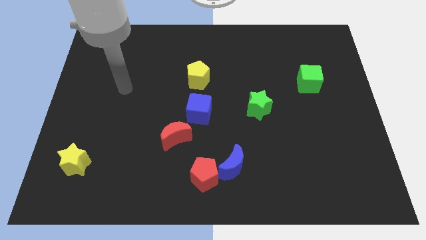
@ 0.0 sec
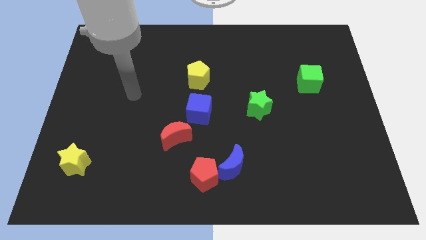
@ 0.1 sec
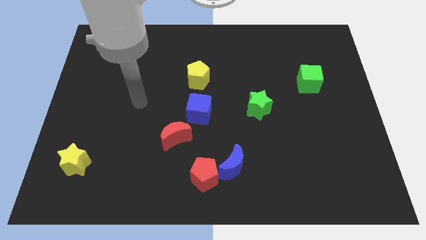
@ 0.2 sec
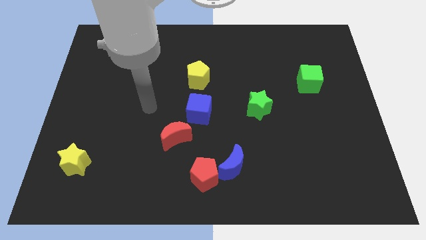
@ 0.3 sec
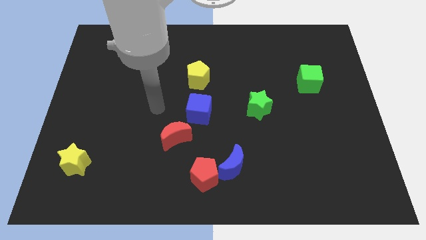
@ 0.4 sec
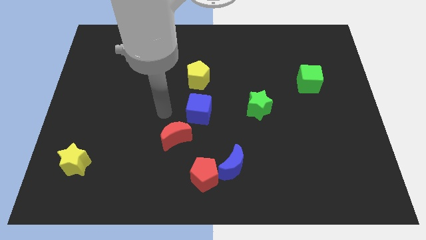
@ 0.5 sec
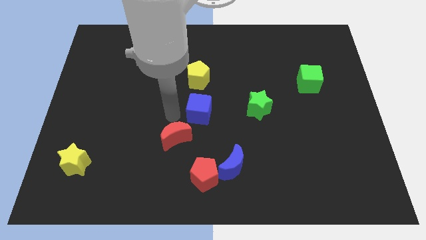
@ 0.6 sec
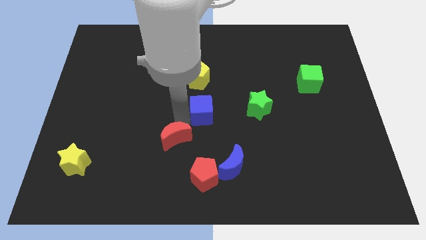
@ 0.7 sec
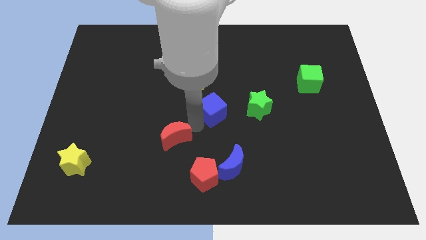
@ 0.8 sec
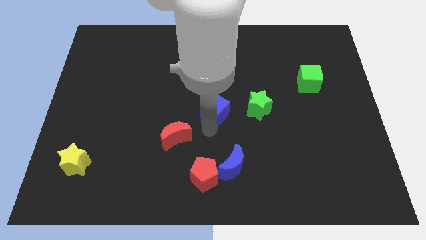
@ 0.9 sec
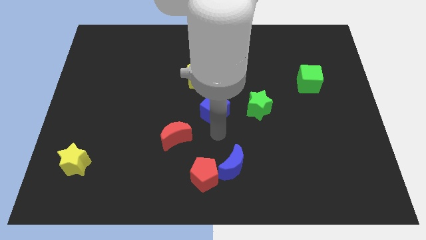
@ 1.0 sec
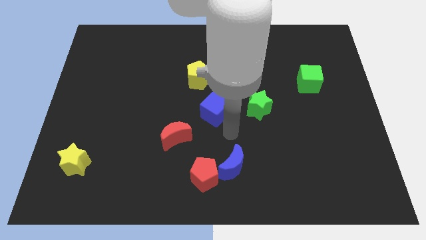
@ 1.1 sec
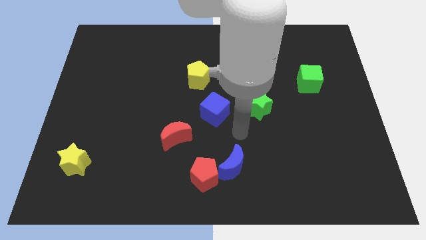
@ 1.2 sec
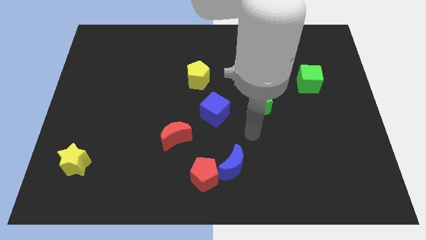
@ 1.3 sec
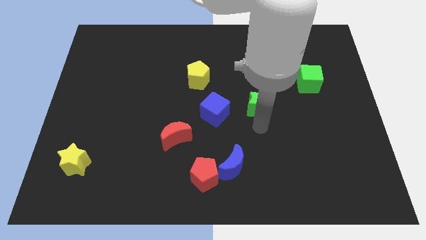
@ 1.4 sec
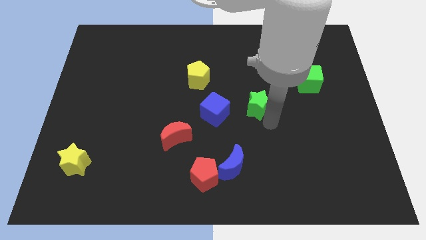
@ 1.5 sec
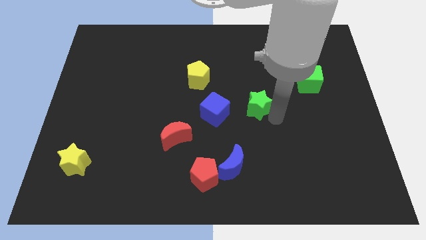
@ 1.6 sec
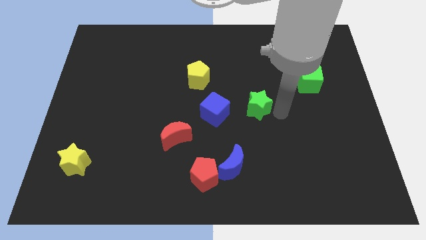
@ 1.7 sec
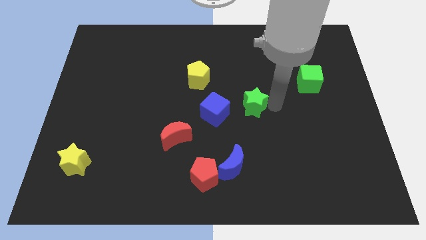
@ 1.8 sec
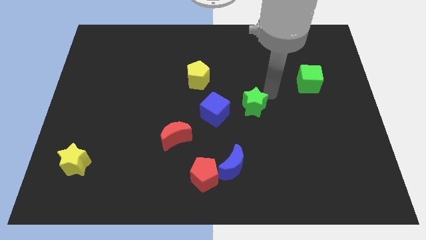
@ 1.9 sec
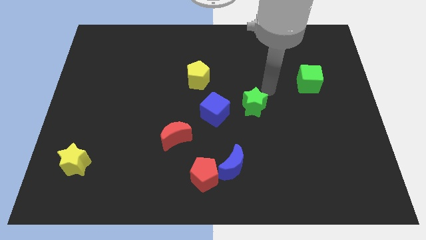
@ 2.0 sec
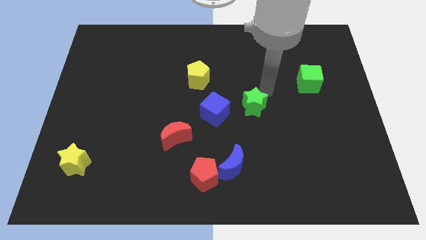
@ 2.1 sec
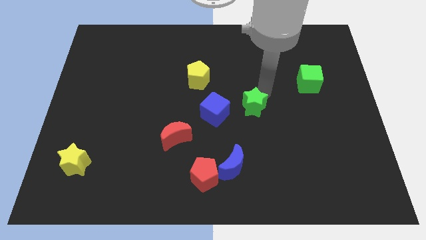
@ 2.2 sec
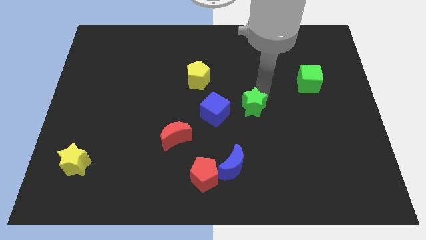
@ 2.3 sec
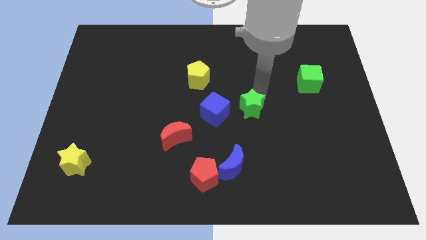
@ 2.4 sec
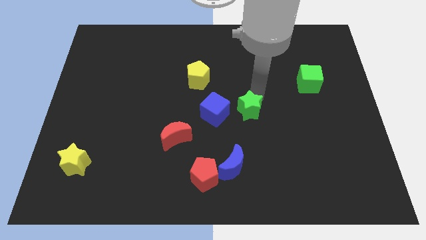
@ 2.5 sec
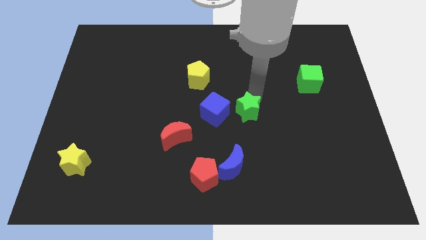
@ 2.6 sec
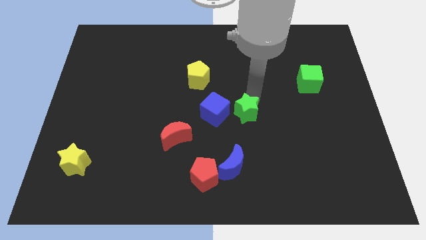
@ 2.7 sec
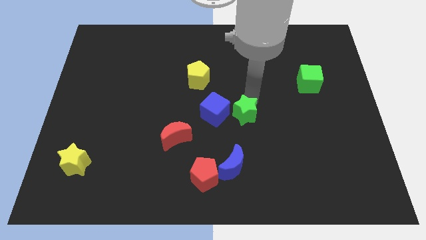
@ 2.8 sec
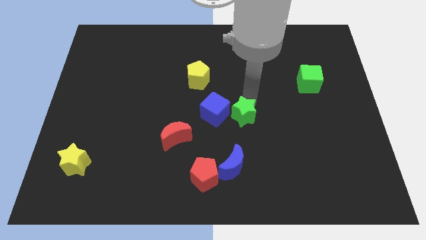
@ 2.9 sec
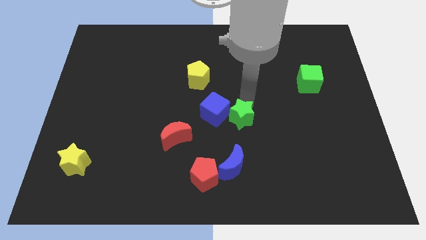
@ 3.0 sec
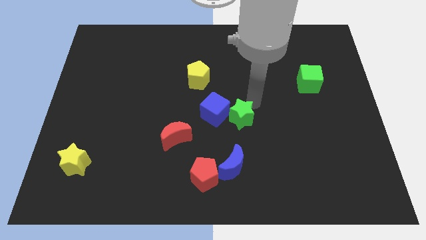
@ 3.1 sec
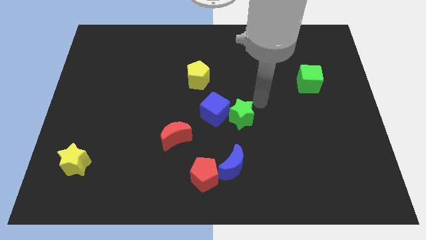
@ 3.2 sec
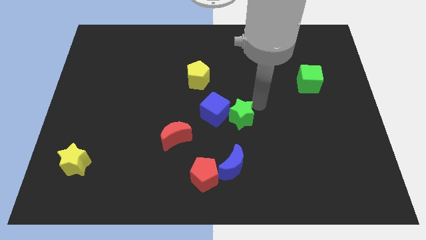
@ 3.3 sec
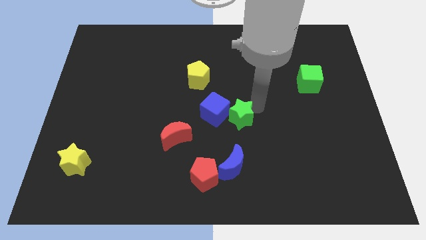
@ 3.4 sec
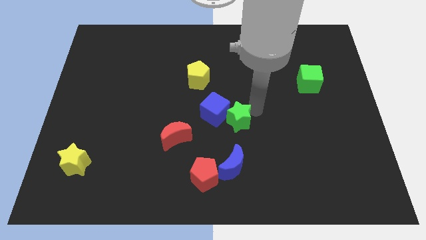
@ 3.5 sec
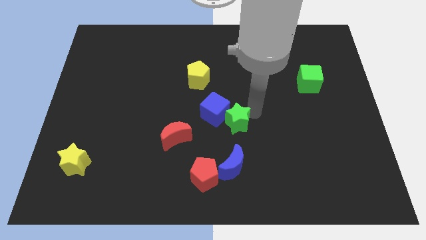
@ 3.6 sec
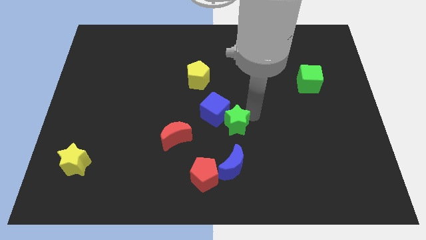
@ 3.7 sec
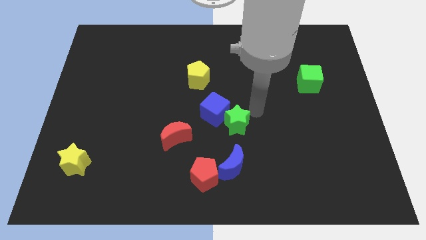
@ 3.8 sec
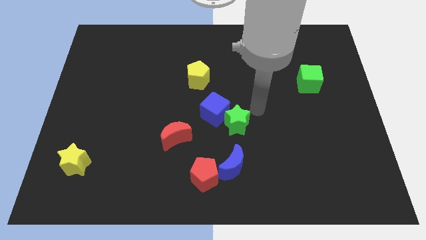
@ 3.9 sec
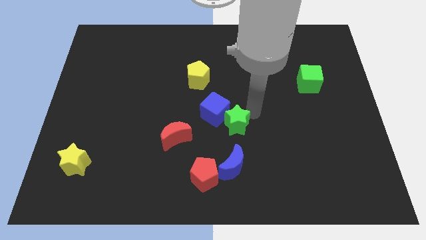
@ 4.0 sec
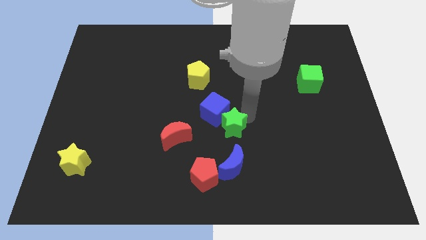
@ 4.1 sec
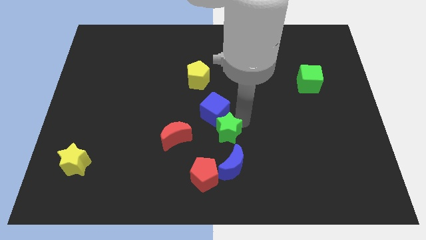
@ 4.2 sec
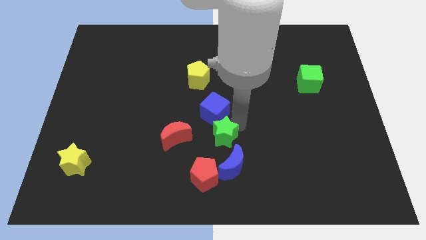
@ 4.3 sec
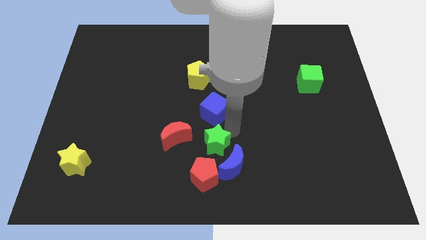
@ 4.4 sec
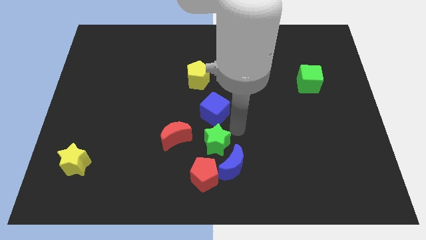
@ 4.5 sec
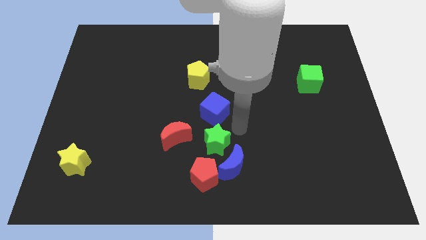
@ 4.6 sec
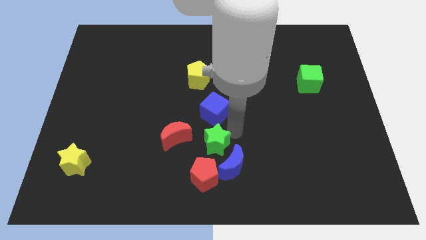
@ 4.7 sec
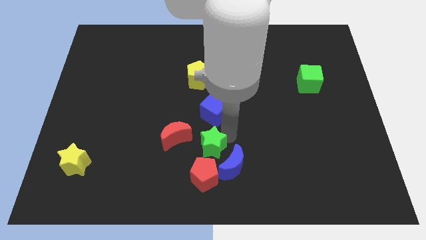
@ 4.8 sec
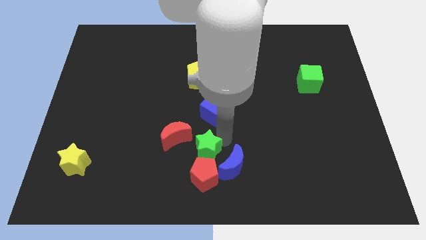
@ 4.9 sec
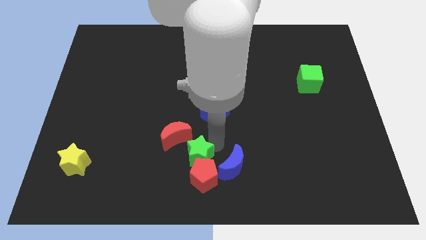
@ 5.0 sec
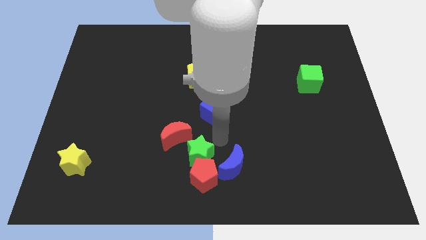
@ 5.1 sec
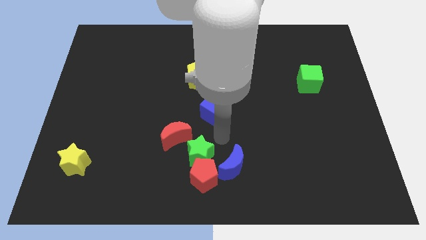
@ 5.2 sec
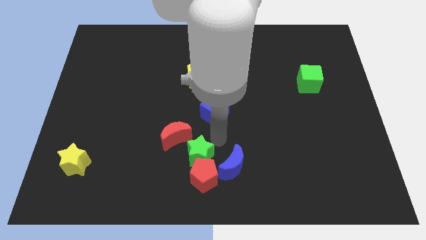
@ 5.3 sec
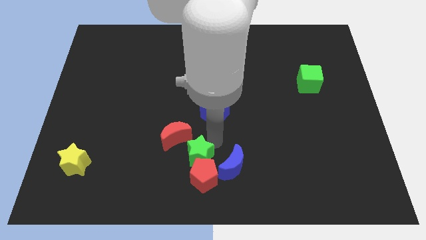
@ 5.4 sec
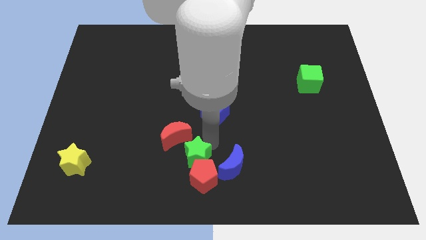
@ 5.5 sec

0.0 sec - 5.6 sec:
put the green star to the bottom of the red moon

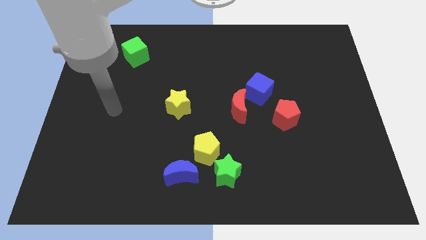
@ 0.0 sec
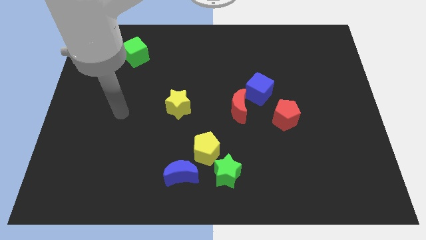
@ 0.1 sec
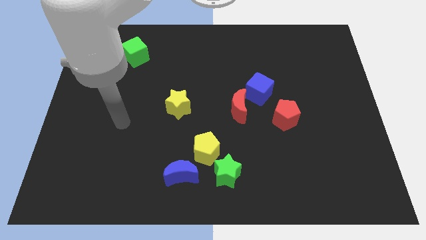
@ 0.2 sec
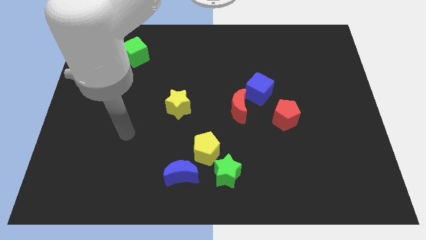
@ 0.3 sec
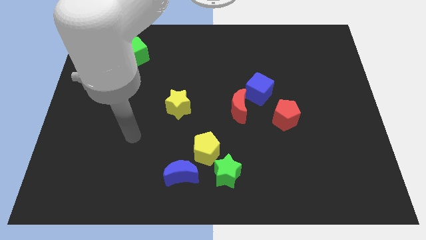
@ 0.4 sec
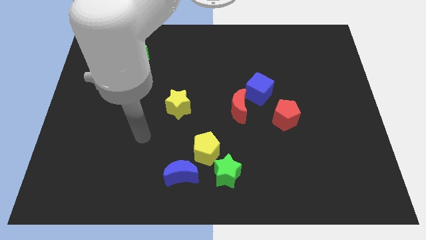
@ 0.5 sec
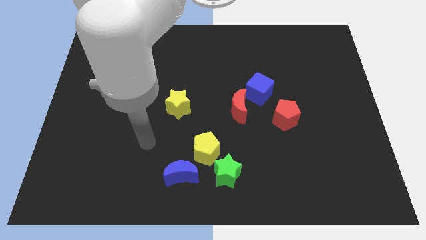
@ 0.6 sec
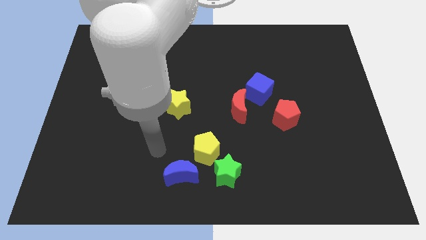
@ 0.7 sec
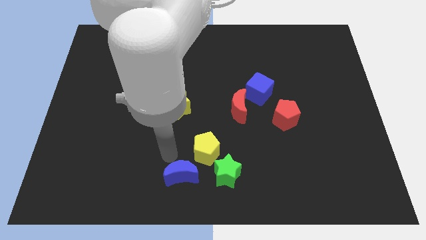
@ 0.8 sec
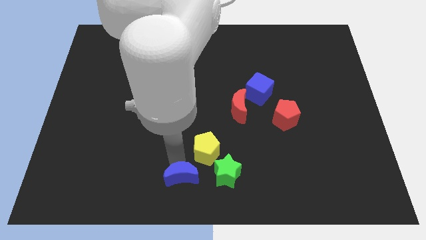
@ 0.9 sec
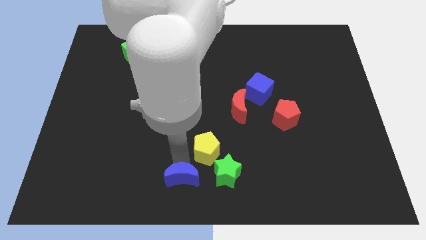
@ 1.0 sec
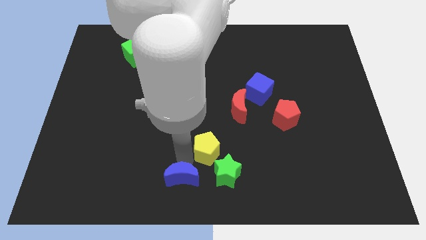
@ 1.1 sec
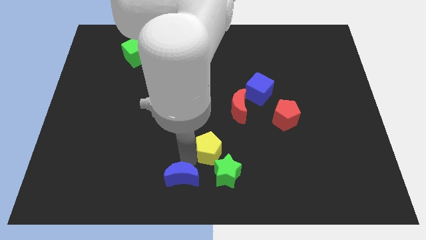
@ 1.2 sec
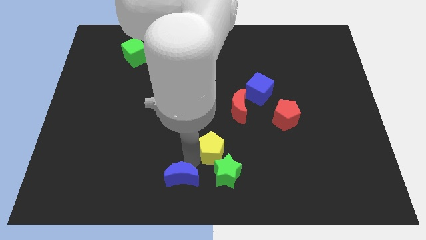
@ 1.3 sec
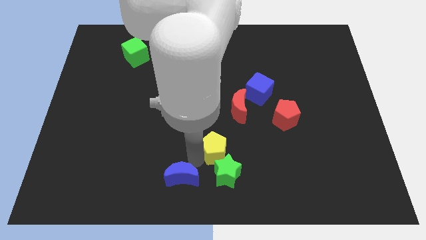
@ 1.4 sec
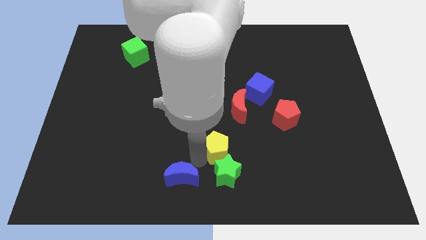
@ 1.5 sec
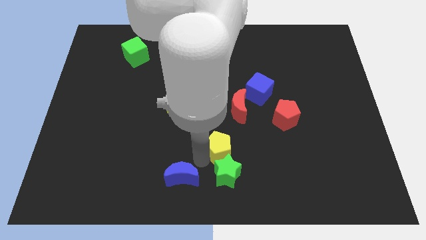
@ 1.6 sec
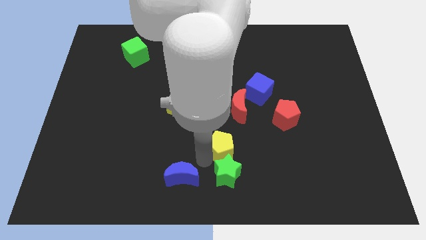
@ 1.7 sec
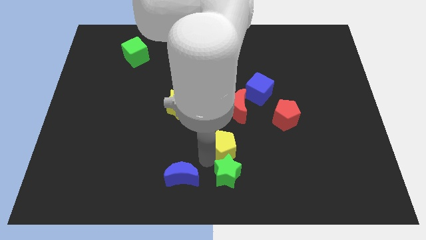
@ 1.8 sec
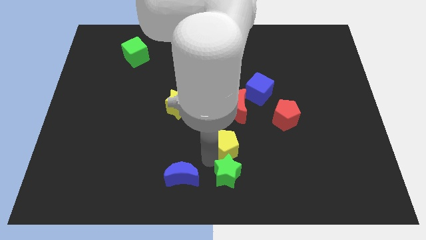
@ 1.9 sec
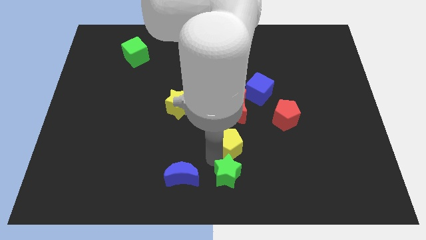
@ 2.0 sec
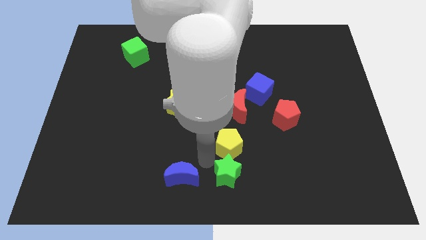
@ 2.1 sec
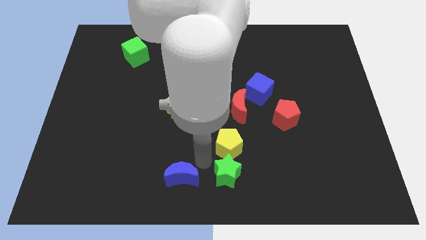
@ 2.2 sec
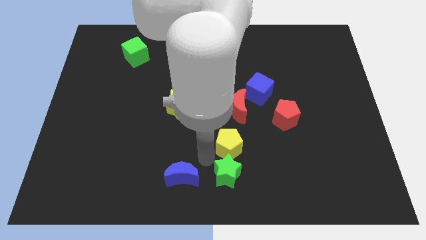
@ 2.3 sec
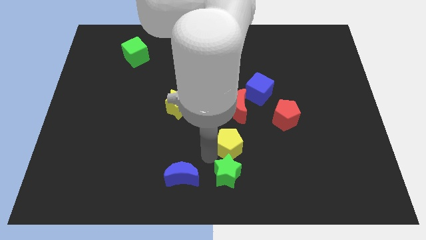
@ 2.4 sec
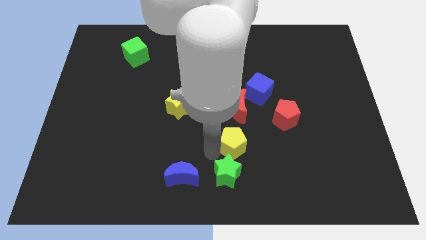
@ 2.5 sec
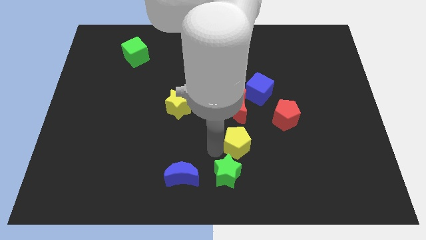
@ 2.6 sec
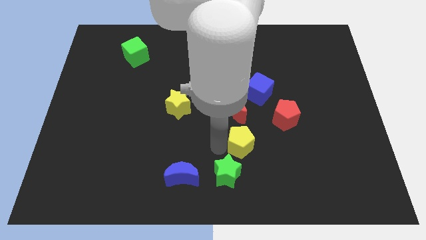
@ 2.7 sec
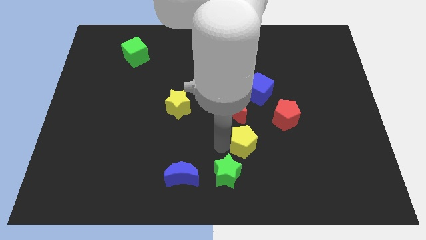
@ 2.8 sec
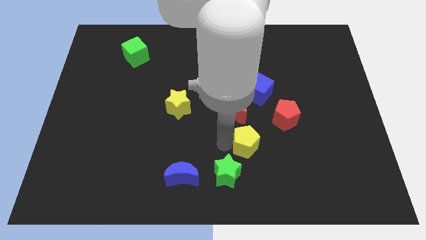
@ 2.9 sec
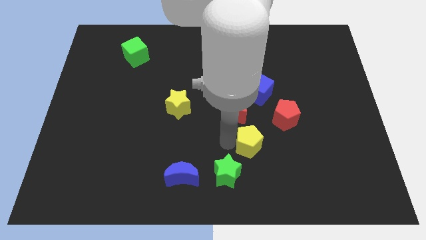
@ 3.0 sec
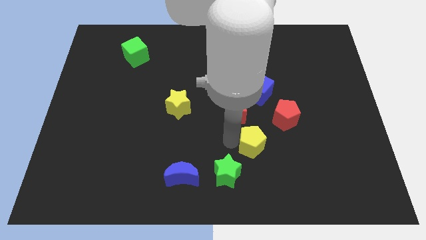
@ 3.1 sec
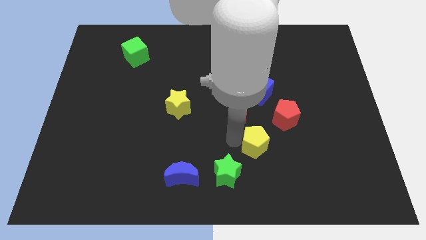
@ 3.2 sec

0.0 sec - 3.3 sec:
push the yellow pentagon to the bottom right of the red moon
